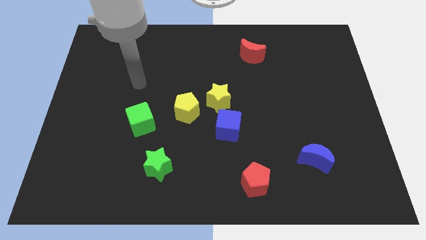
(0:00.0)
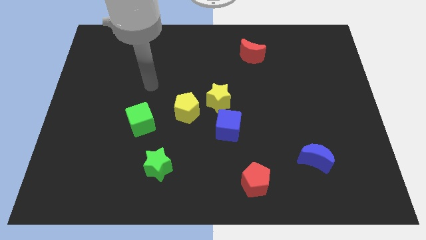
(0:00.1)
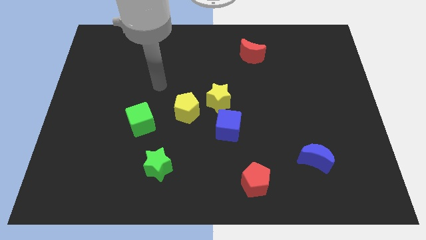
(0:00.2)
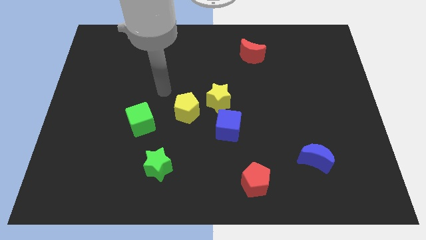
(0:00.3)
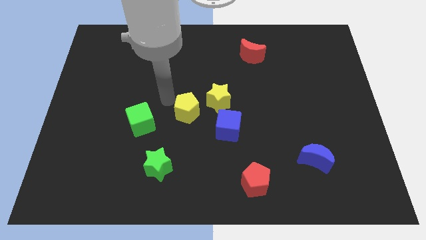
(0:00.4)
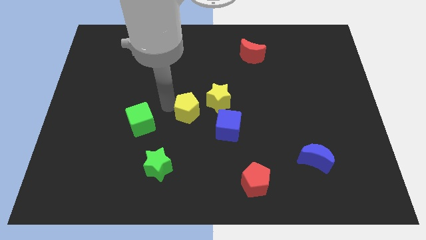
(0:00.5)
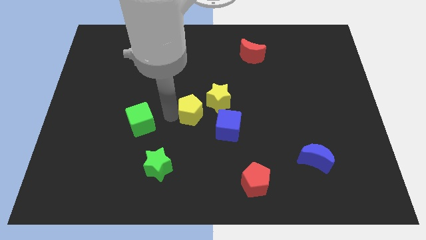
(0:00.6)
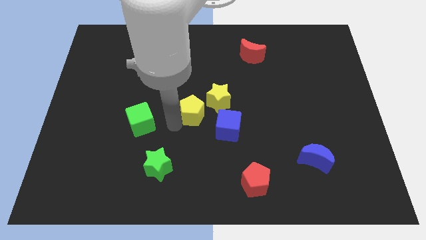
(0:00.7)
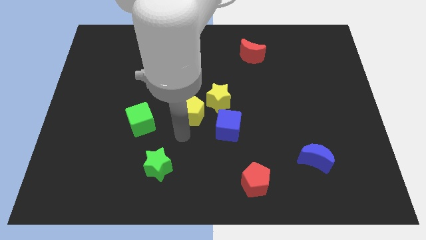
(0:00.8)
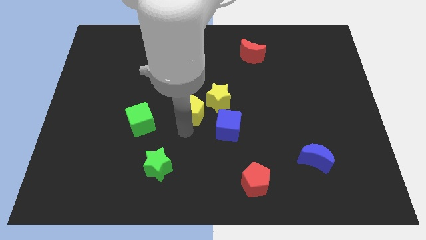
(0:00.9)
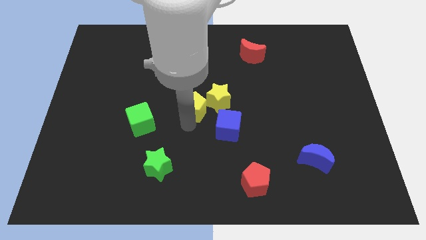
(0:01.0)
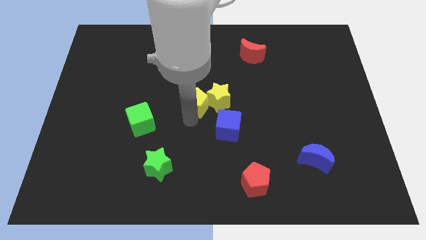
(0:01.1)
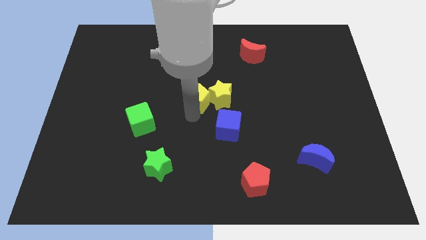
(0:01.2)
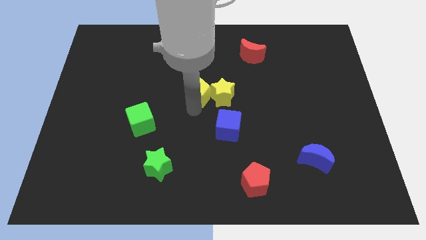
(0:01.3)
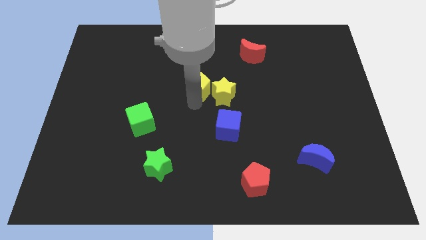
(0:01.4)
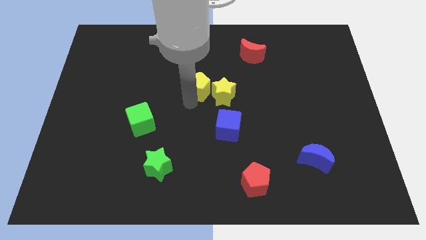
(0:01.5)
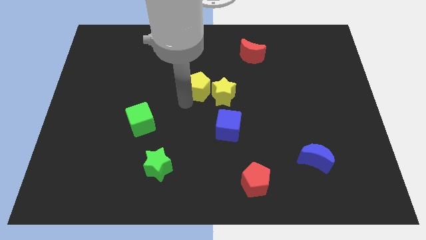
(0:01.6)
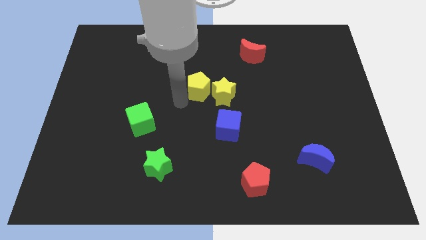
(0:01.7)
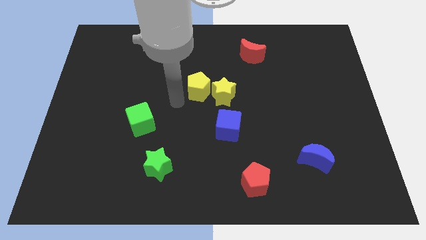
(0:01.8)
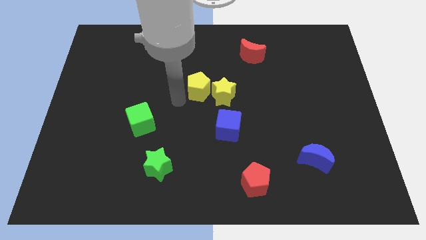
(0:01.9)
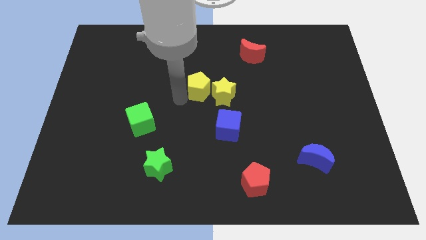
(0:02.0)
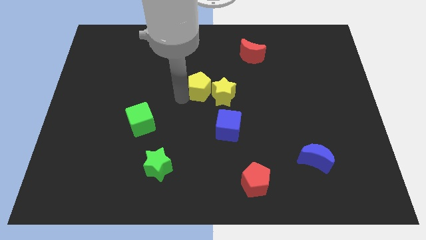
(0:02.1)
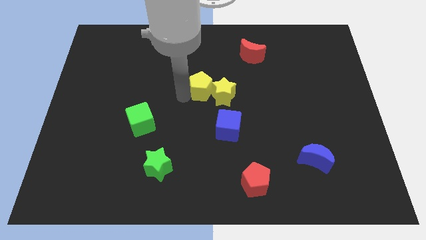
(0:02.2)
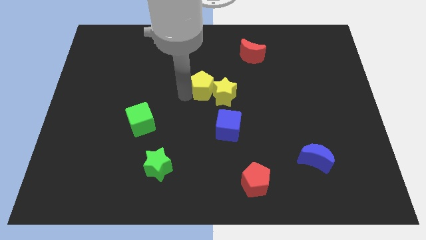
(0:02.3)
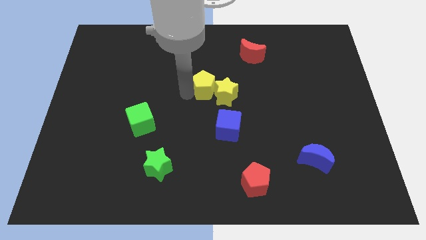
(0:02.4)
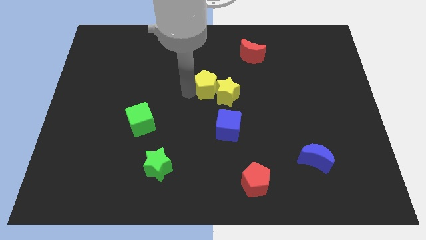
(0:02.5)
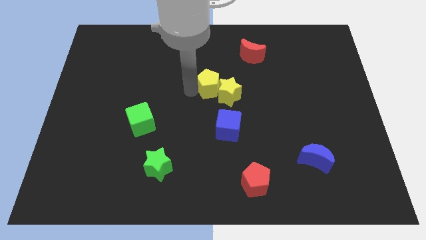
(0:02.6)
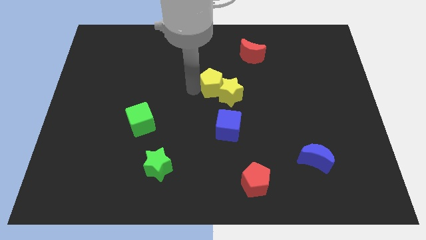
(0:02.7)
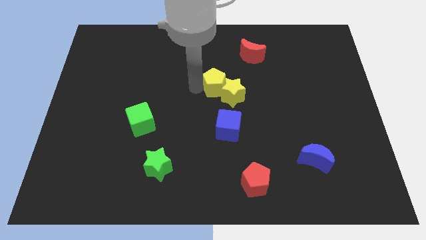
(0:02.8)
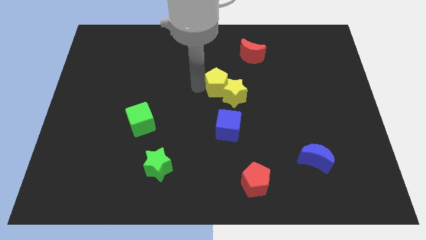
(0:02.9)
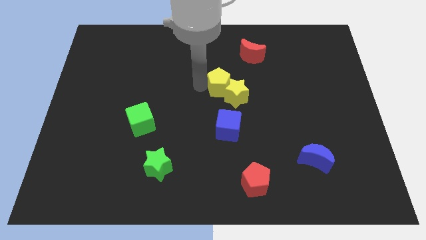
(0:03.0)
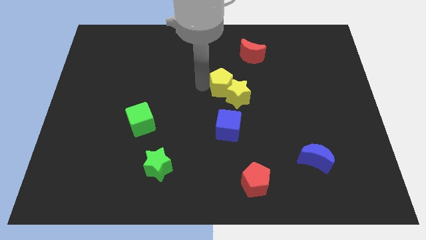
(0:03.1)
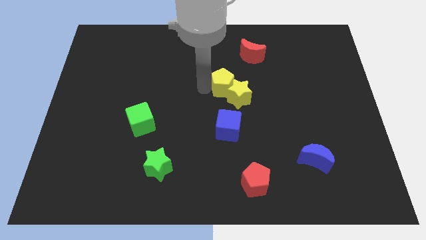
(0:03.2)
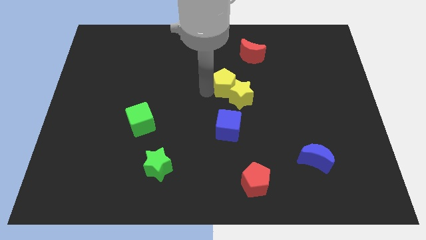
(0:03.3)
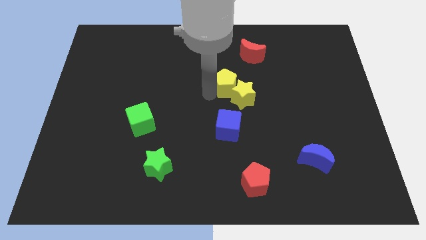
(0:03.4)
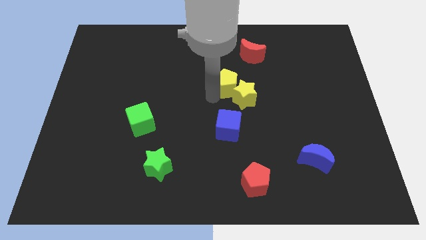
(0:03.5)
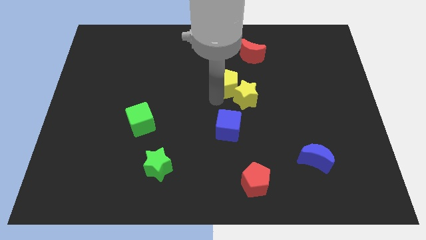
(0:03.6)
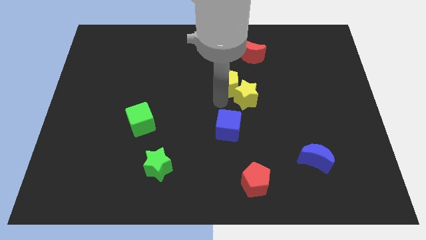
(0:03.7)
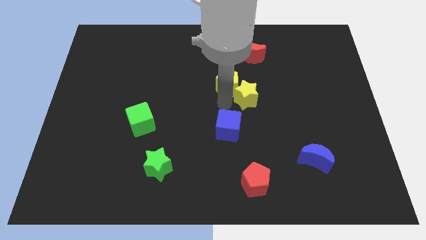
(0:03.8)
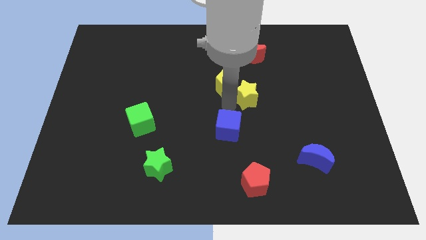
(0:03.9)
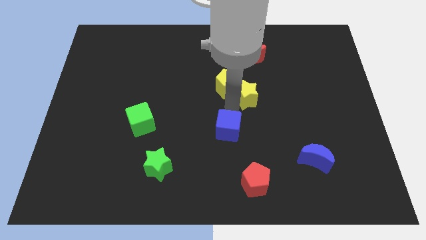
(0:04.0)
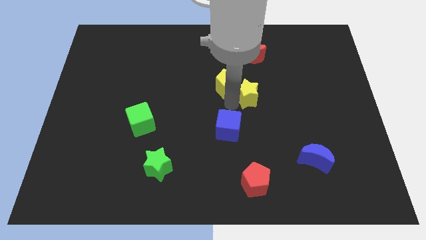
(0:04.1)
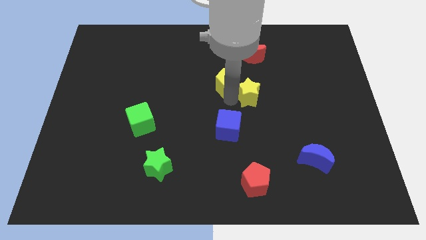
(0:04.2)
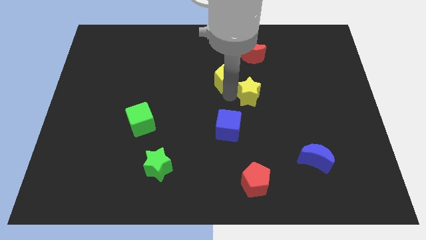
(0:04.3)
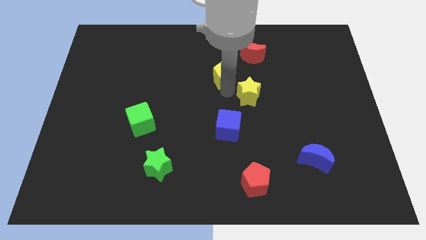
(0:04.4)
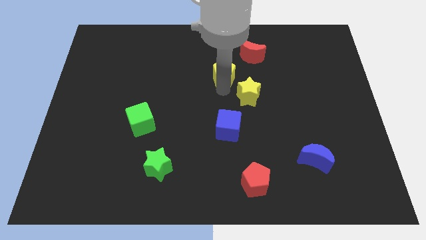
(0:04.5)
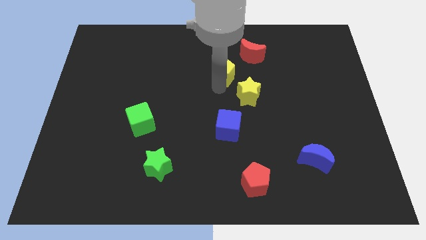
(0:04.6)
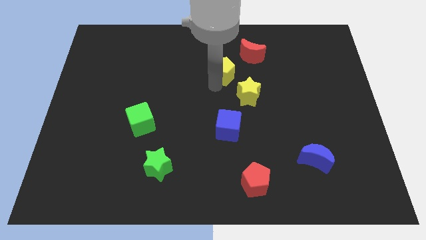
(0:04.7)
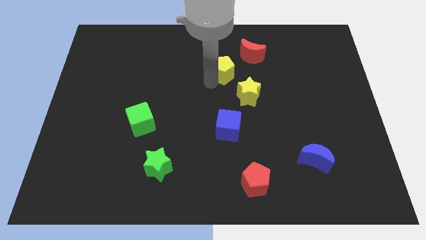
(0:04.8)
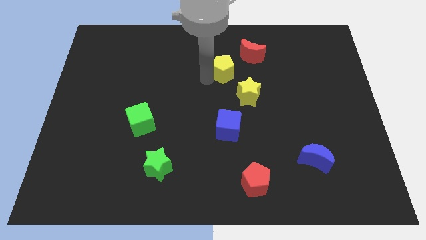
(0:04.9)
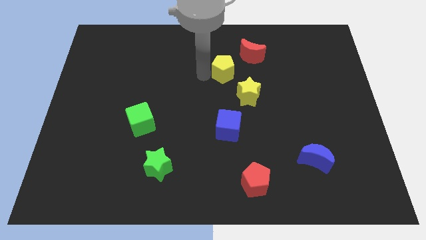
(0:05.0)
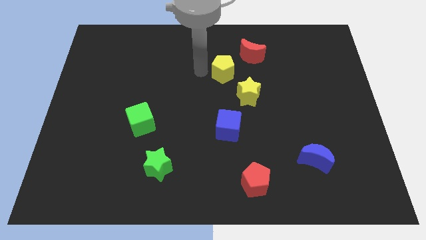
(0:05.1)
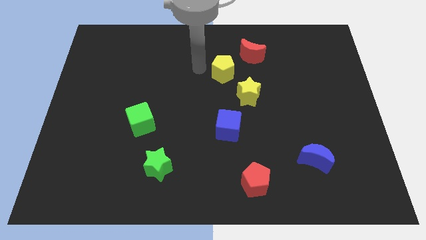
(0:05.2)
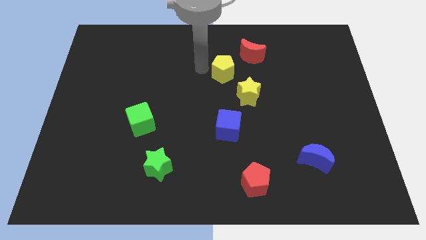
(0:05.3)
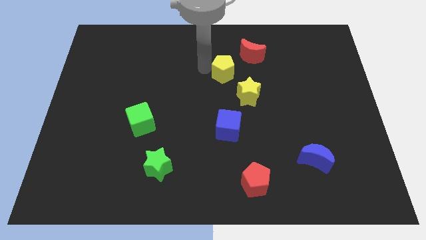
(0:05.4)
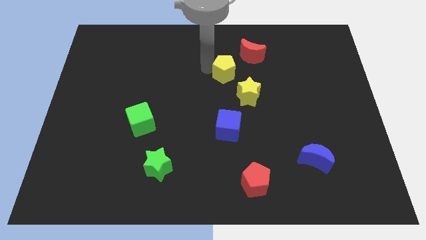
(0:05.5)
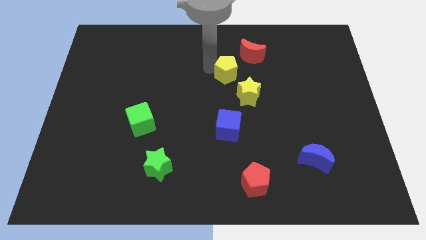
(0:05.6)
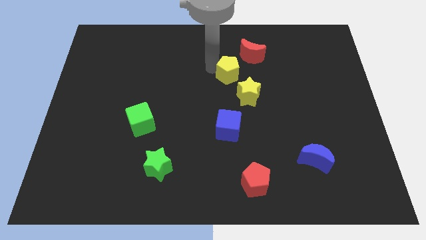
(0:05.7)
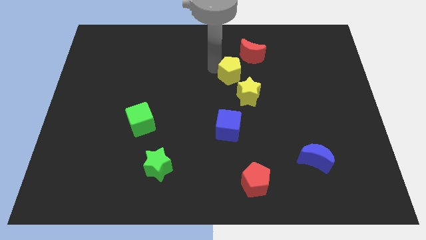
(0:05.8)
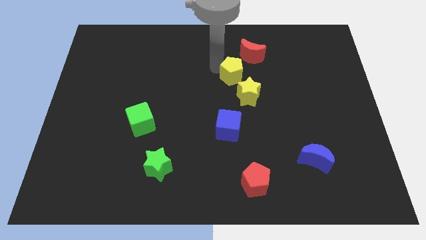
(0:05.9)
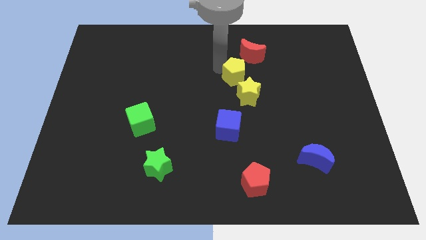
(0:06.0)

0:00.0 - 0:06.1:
move the yellow pentagon below the red moon

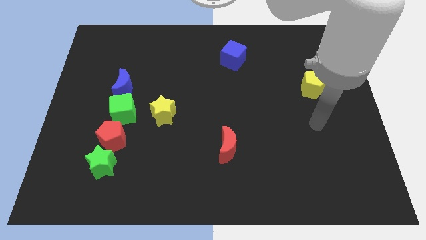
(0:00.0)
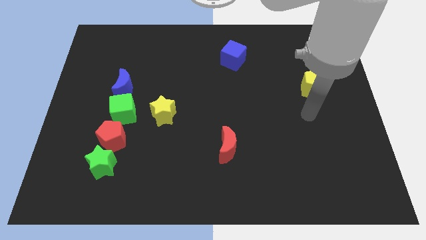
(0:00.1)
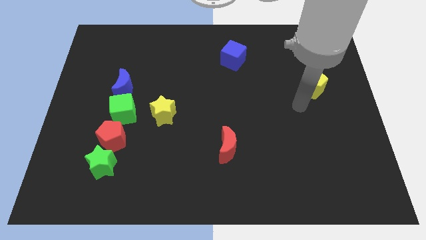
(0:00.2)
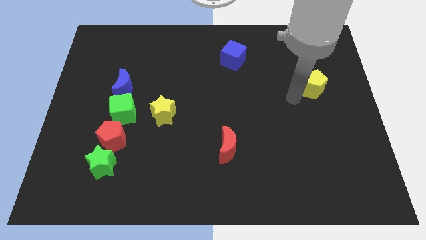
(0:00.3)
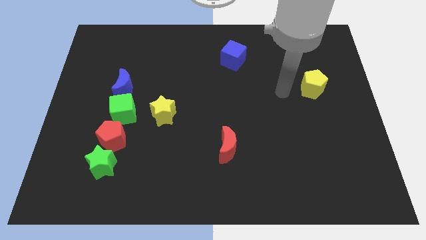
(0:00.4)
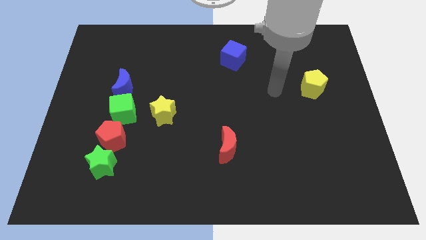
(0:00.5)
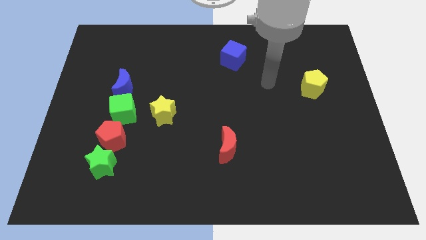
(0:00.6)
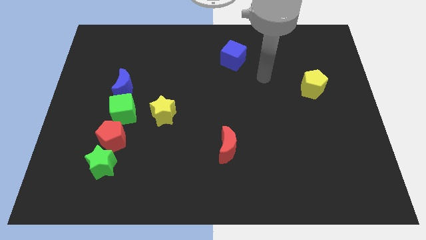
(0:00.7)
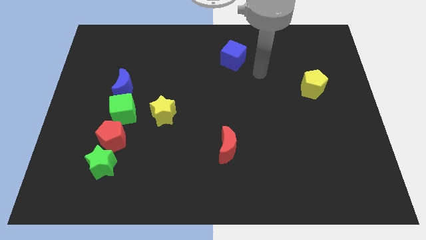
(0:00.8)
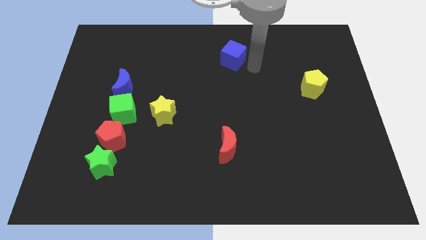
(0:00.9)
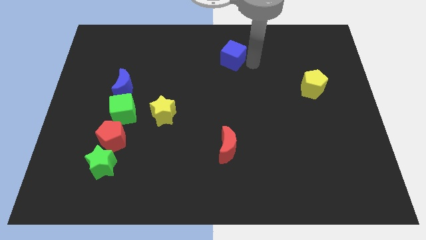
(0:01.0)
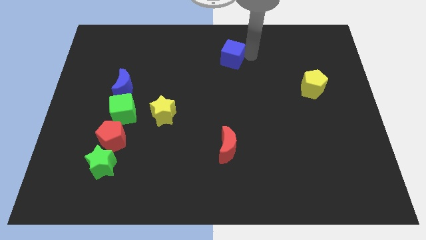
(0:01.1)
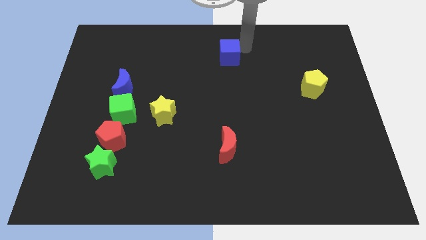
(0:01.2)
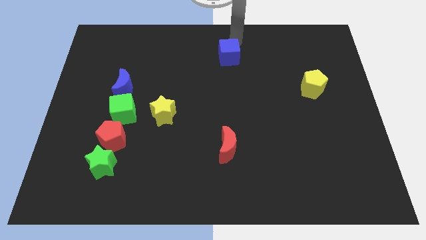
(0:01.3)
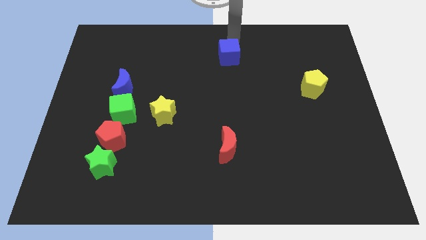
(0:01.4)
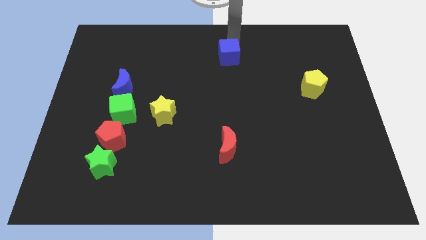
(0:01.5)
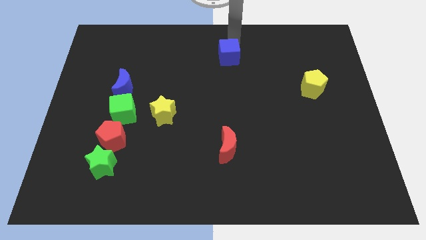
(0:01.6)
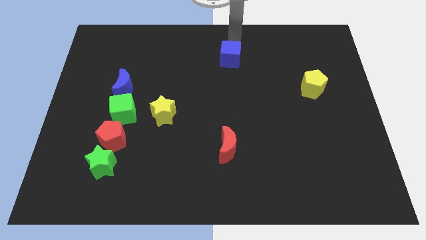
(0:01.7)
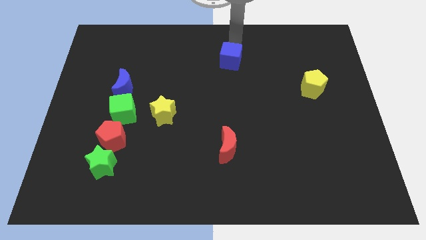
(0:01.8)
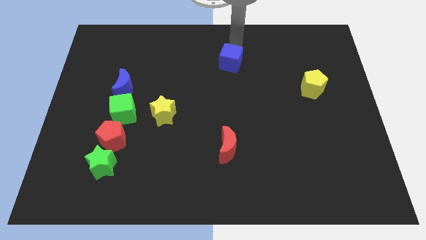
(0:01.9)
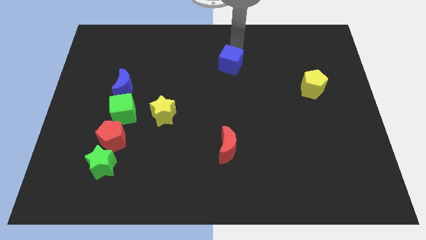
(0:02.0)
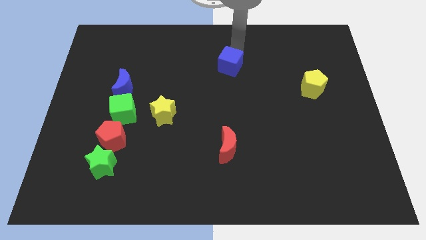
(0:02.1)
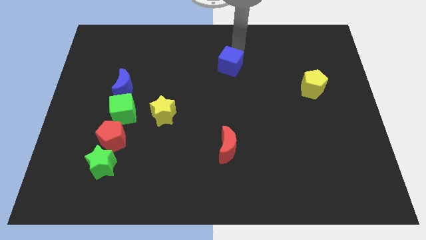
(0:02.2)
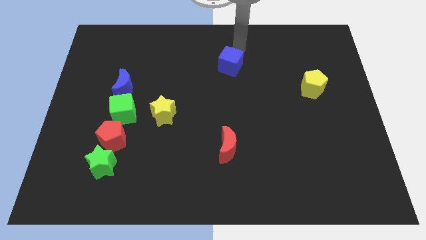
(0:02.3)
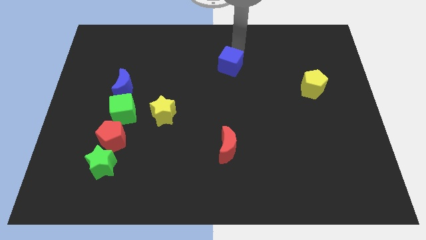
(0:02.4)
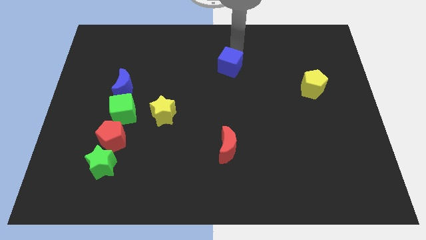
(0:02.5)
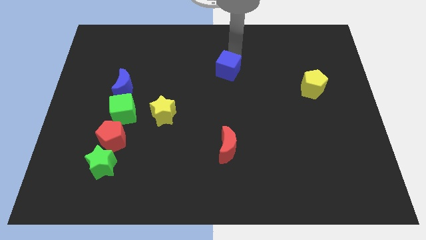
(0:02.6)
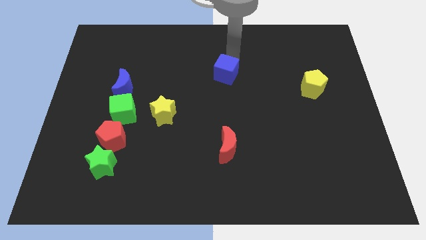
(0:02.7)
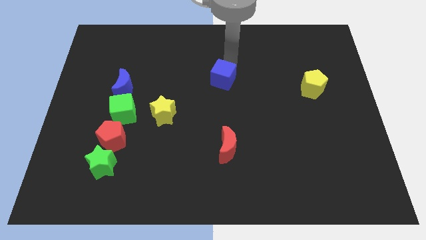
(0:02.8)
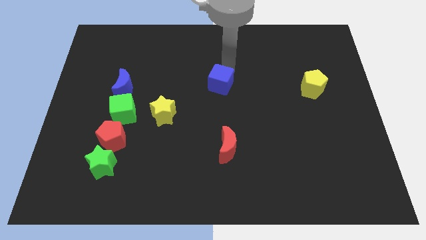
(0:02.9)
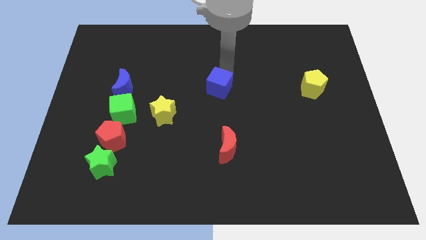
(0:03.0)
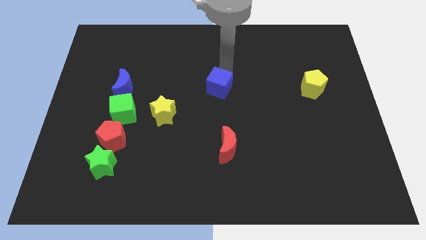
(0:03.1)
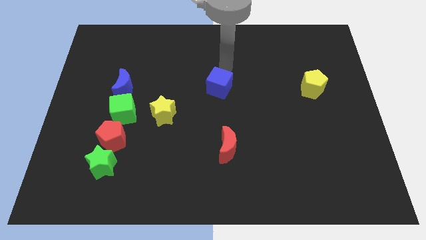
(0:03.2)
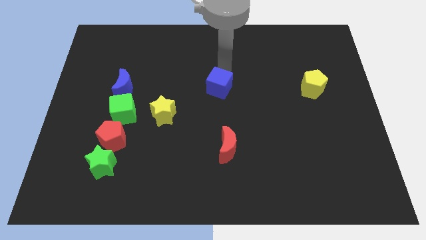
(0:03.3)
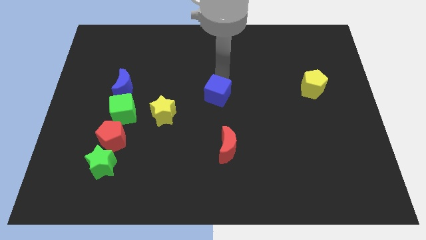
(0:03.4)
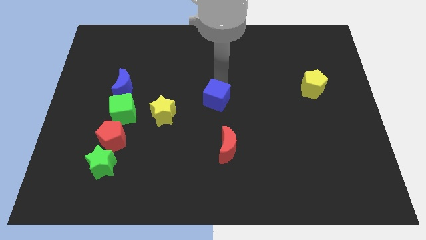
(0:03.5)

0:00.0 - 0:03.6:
put the blue cube to the right of the yellow star
